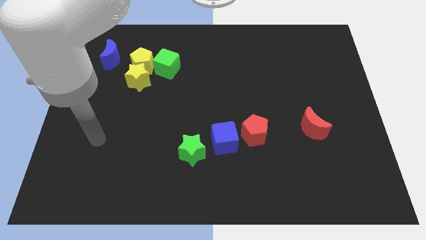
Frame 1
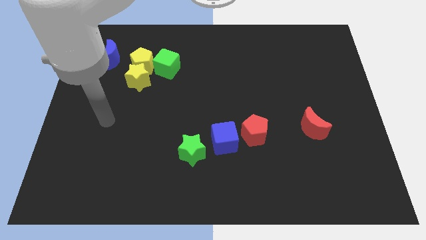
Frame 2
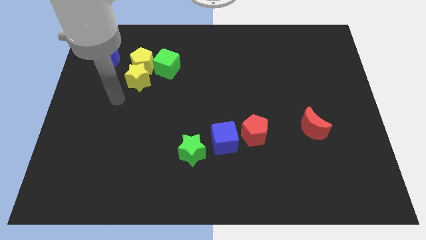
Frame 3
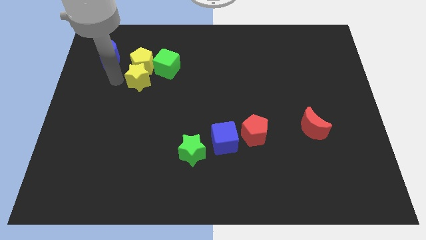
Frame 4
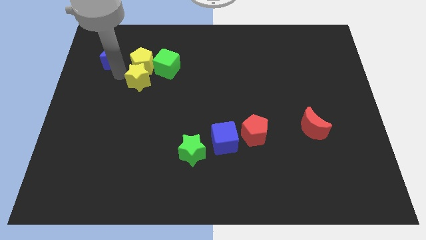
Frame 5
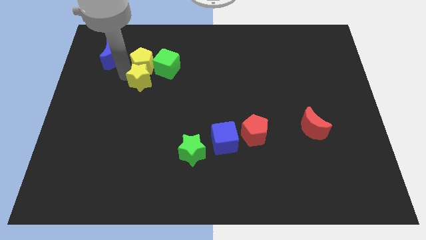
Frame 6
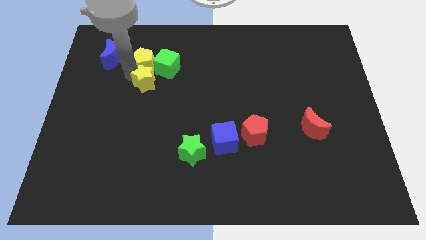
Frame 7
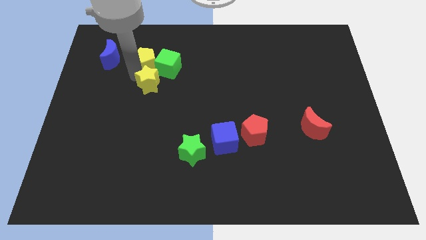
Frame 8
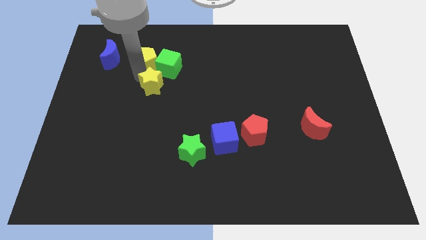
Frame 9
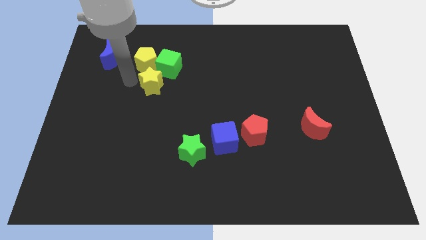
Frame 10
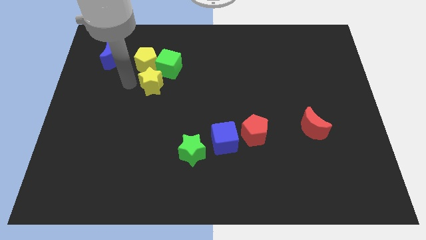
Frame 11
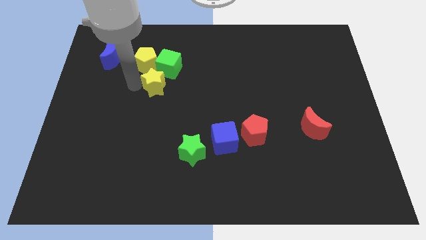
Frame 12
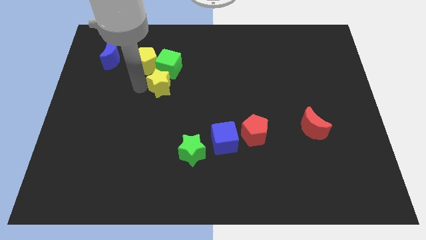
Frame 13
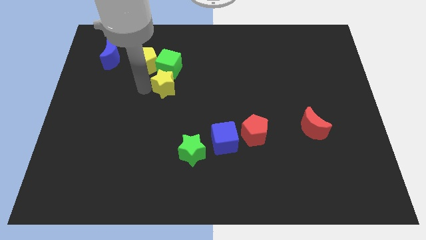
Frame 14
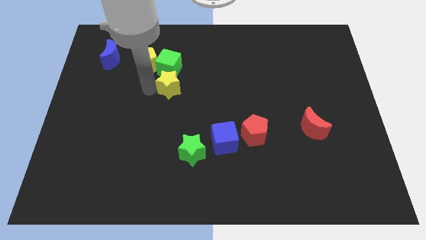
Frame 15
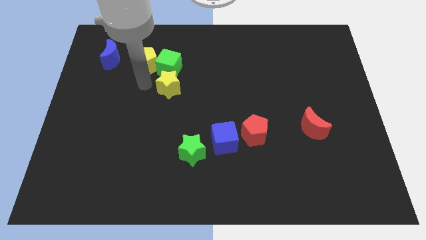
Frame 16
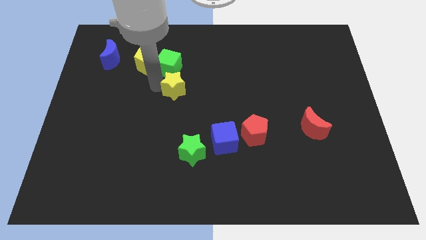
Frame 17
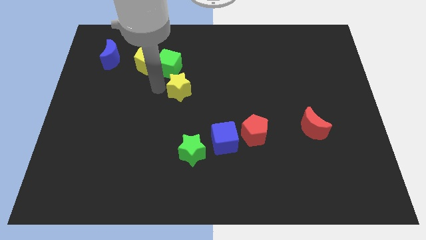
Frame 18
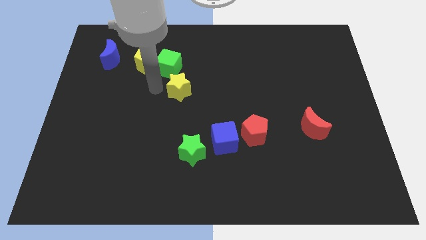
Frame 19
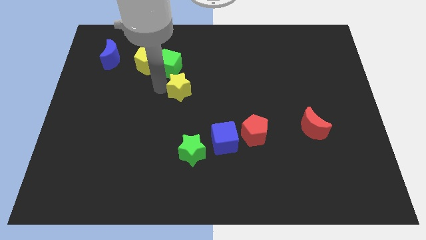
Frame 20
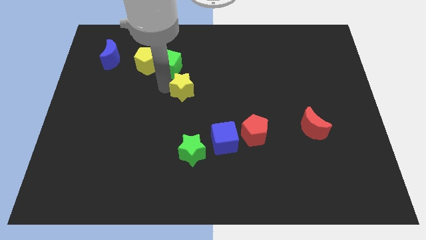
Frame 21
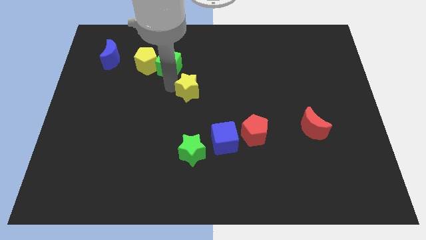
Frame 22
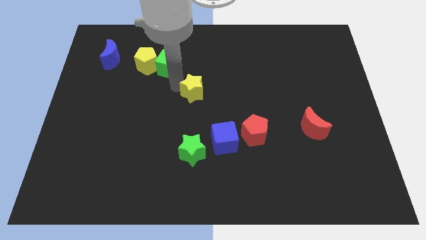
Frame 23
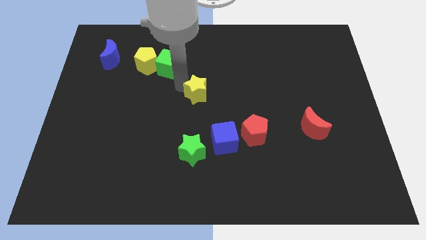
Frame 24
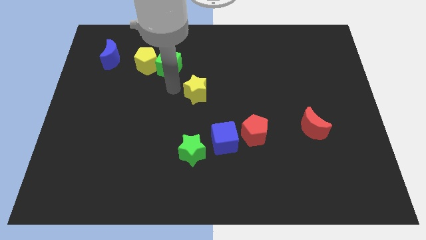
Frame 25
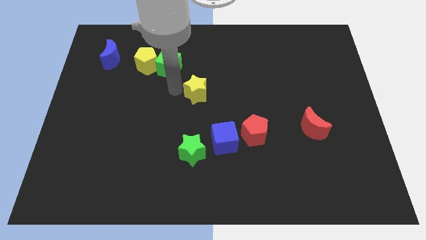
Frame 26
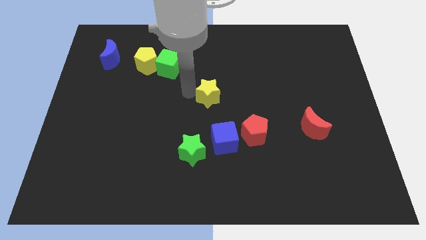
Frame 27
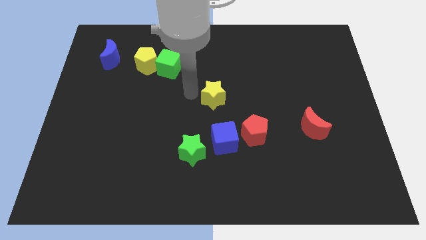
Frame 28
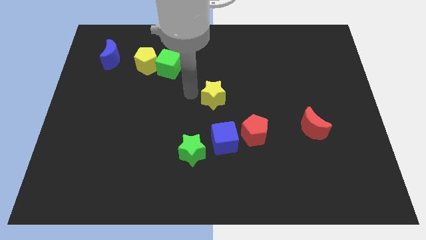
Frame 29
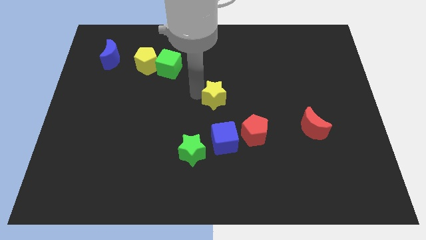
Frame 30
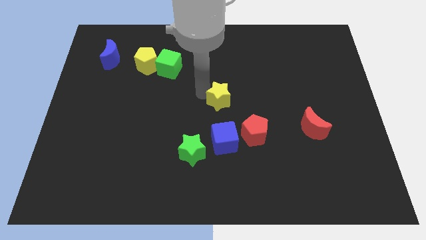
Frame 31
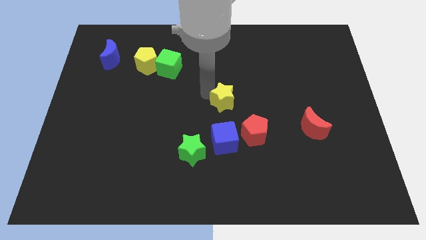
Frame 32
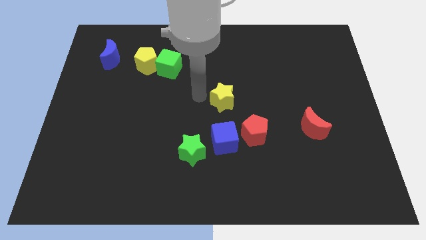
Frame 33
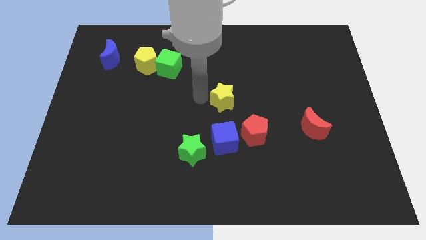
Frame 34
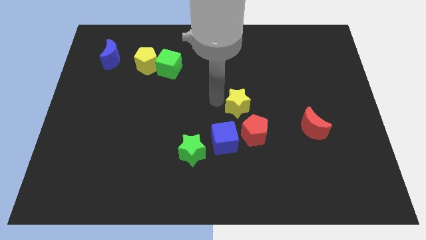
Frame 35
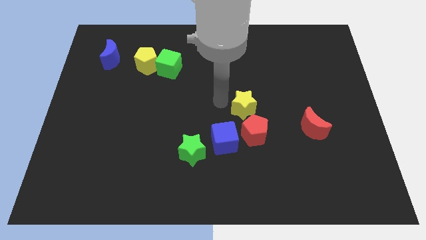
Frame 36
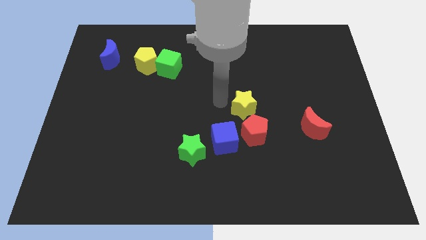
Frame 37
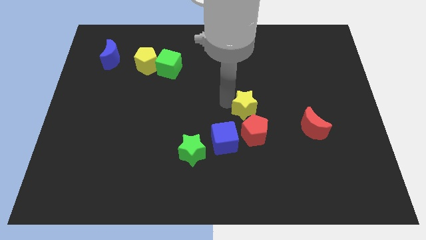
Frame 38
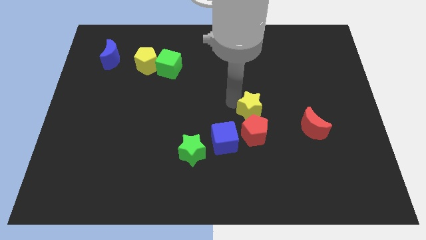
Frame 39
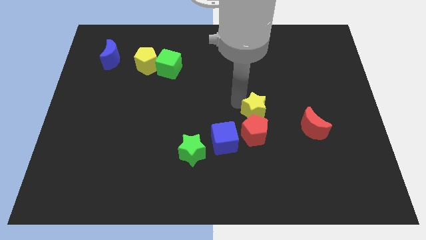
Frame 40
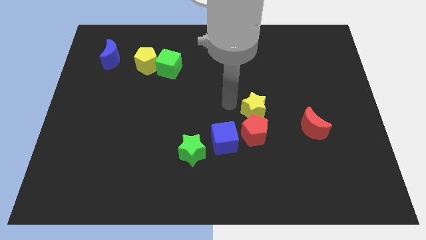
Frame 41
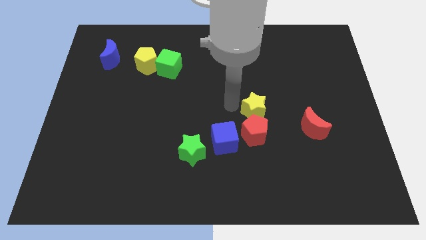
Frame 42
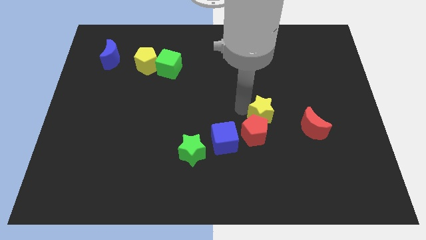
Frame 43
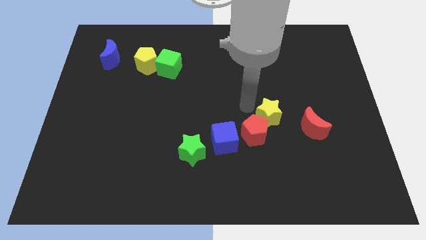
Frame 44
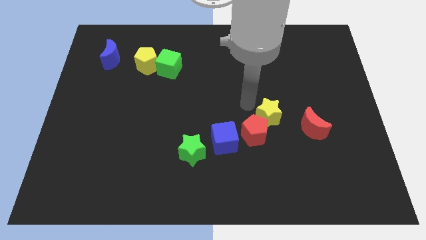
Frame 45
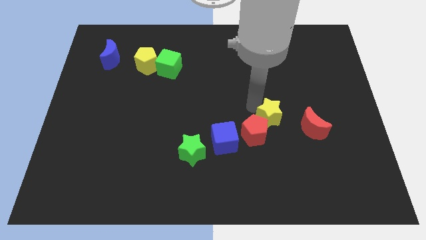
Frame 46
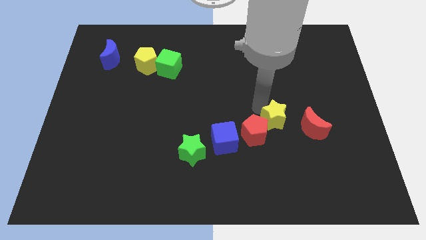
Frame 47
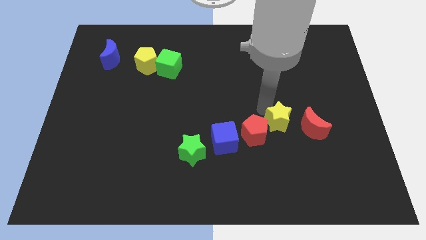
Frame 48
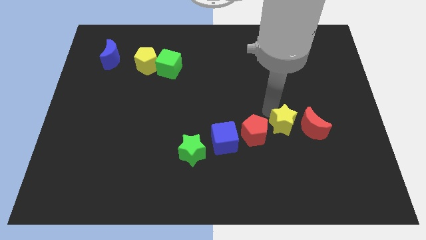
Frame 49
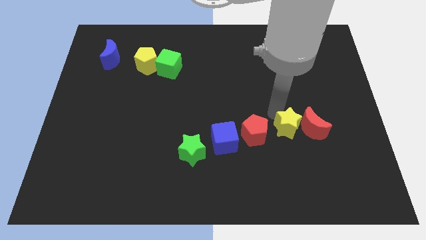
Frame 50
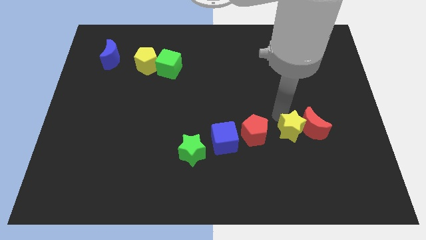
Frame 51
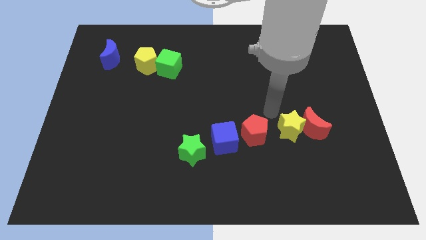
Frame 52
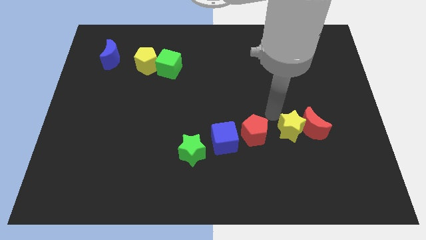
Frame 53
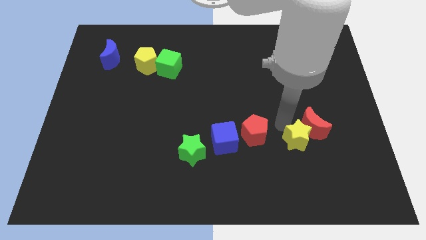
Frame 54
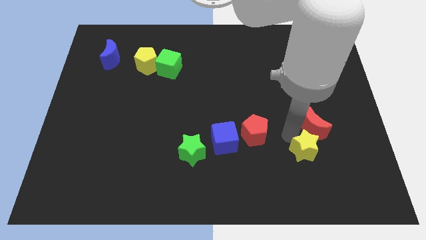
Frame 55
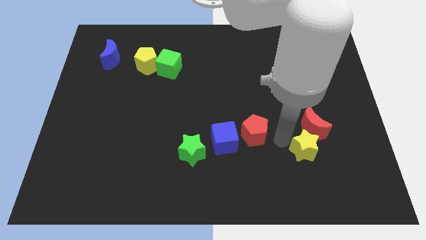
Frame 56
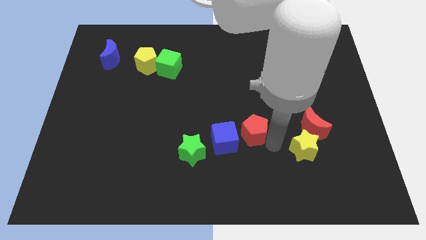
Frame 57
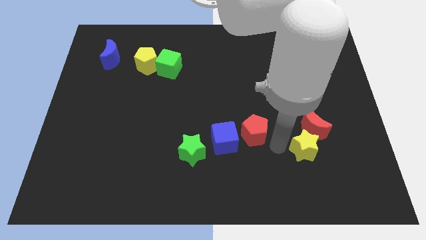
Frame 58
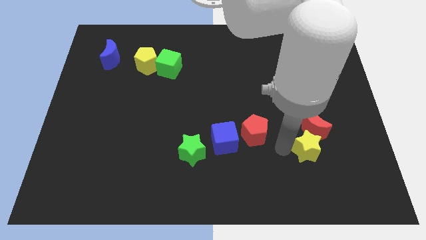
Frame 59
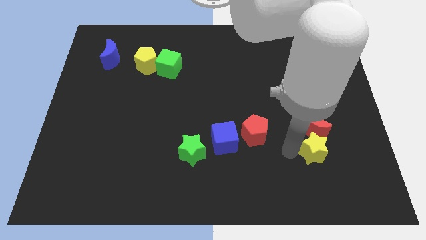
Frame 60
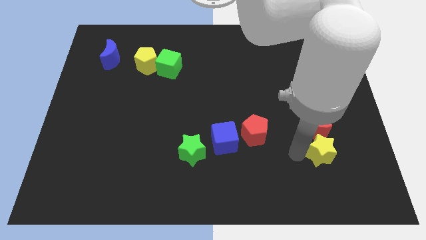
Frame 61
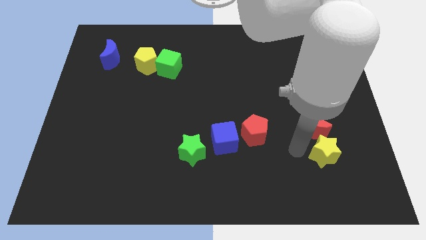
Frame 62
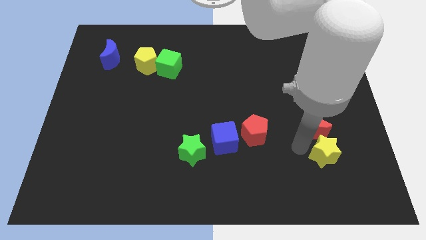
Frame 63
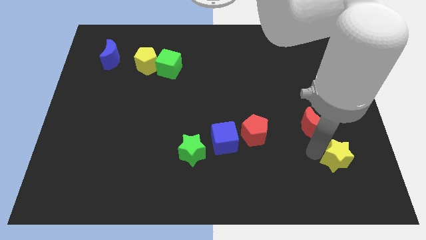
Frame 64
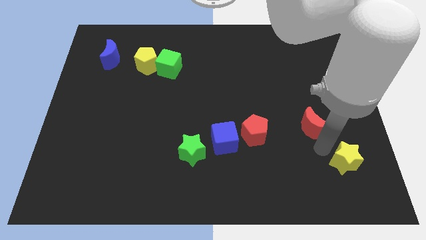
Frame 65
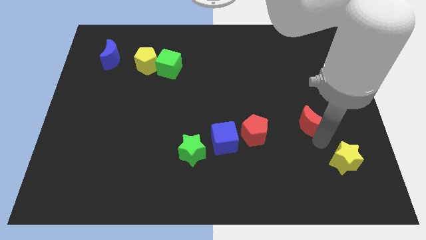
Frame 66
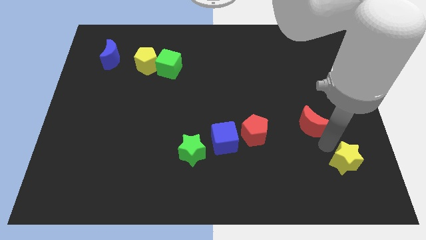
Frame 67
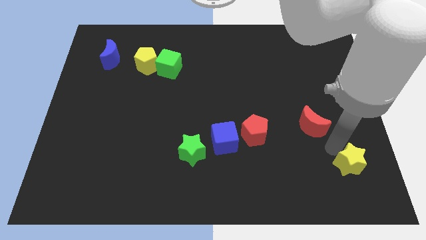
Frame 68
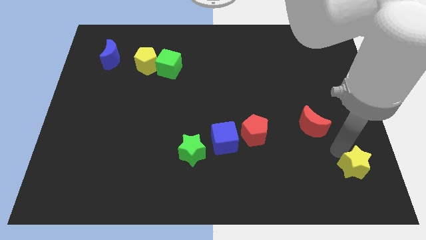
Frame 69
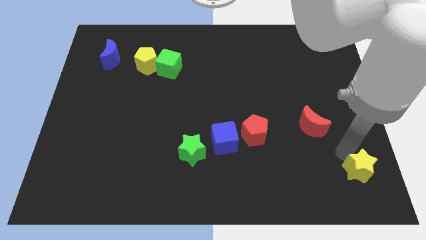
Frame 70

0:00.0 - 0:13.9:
push the yellow star to the bottom right
